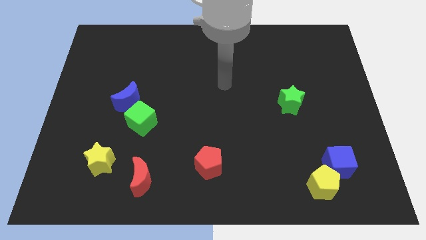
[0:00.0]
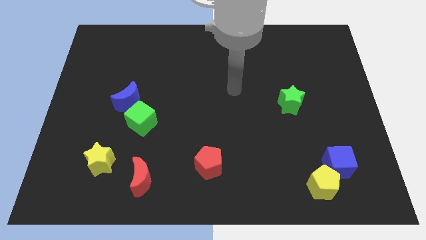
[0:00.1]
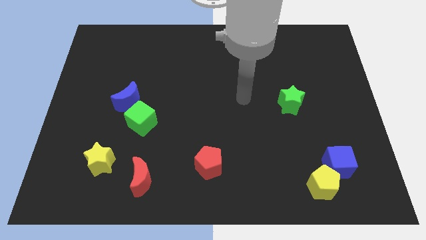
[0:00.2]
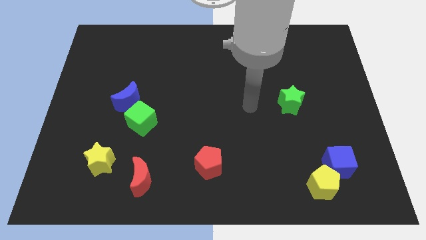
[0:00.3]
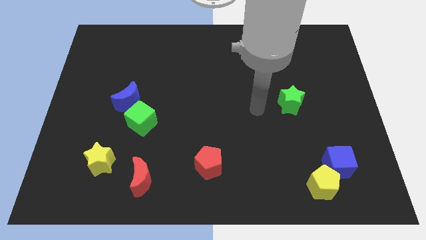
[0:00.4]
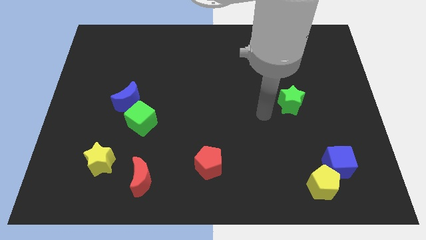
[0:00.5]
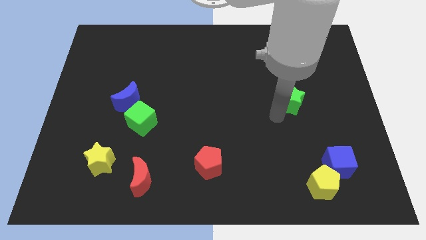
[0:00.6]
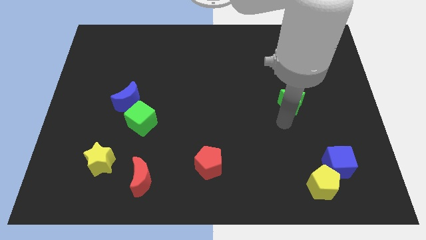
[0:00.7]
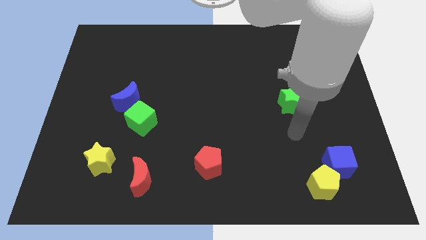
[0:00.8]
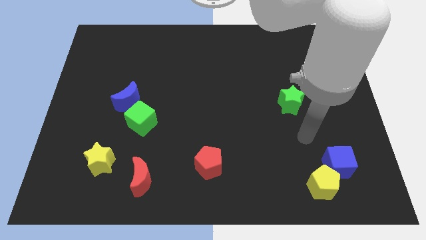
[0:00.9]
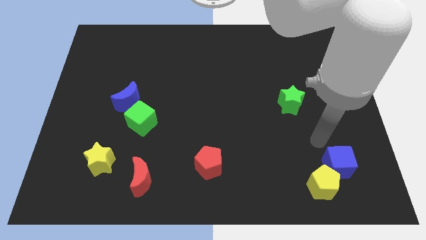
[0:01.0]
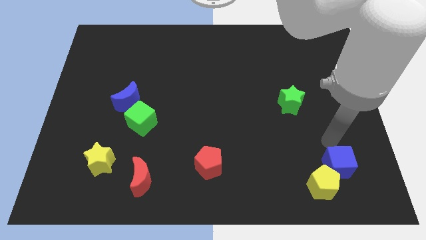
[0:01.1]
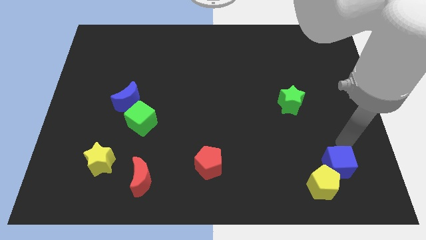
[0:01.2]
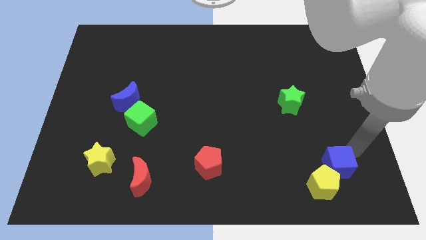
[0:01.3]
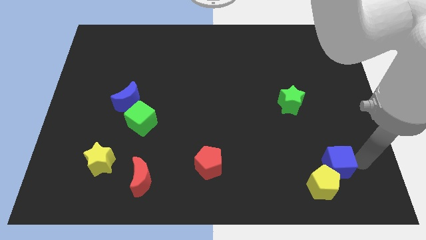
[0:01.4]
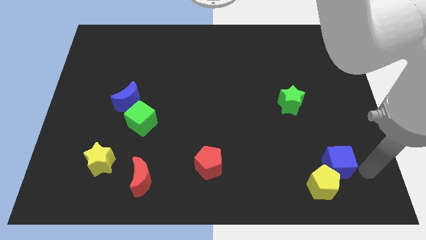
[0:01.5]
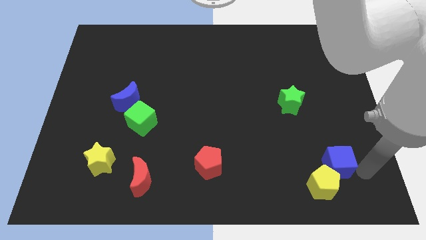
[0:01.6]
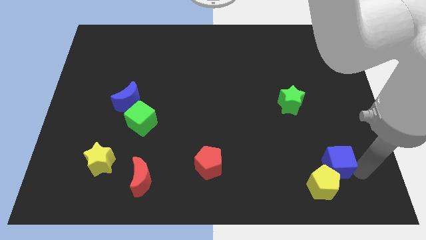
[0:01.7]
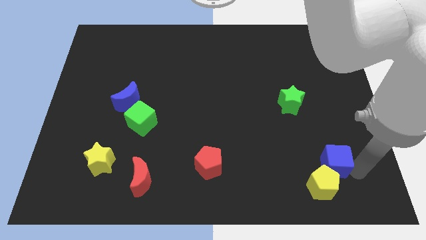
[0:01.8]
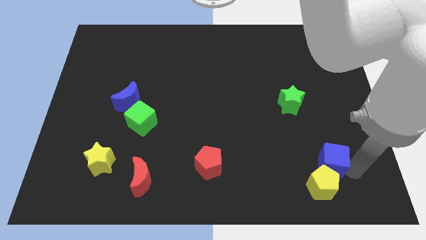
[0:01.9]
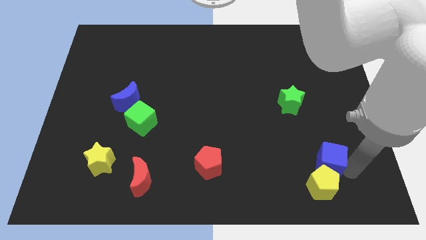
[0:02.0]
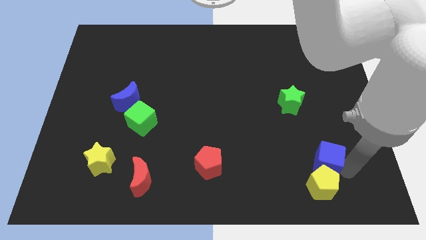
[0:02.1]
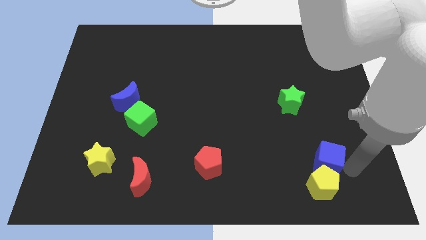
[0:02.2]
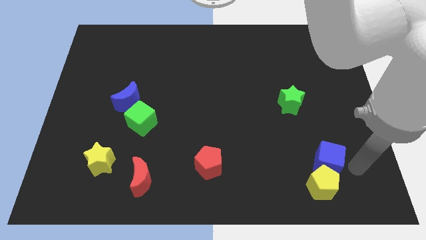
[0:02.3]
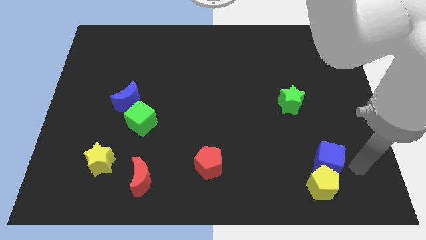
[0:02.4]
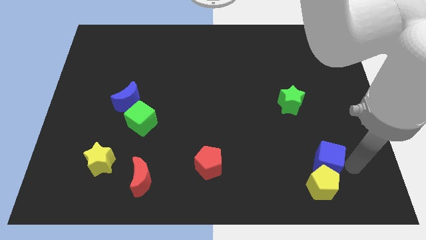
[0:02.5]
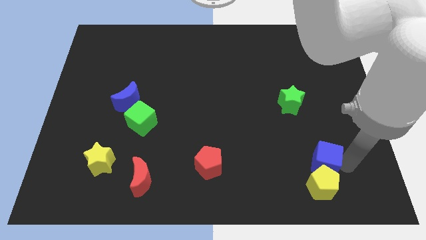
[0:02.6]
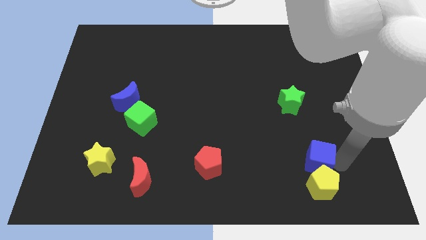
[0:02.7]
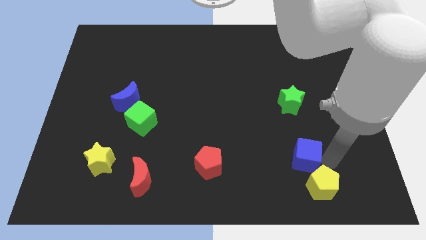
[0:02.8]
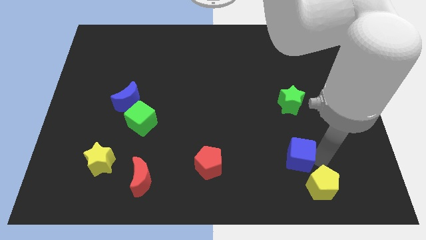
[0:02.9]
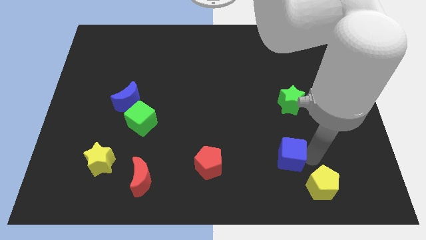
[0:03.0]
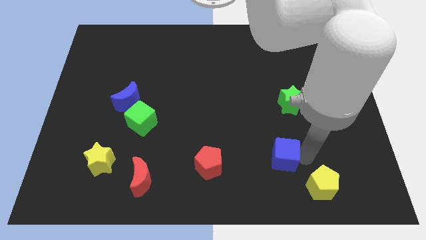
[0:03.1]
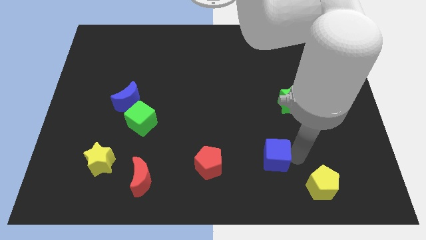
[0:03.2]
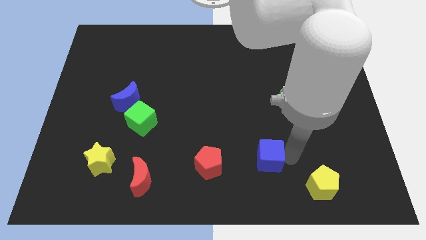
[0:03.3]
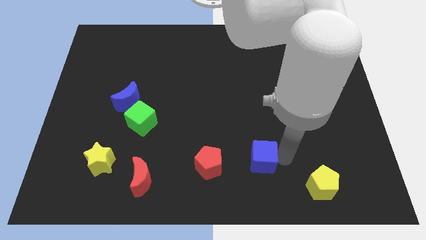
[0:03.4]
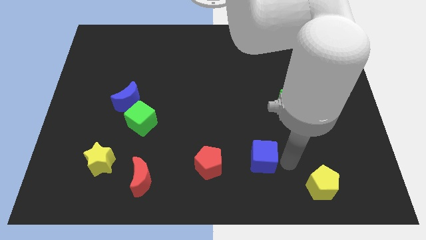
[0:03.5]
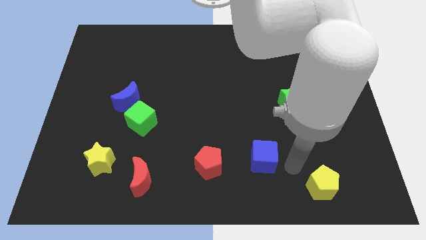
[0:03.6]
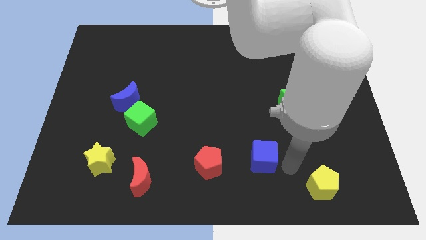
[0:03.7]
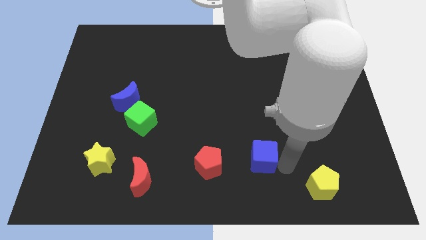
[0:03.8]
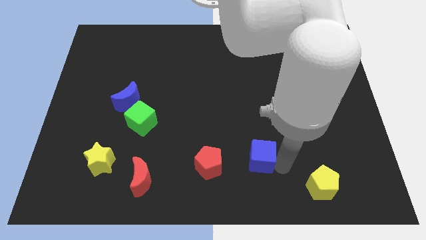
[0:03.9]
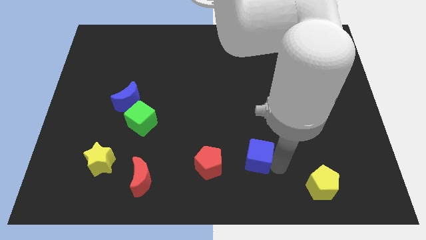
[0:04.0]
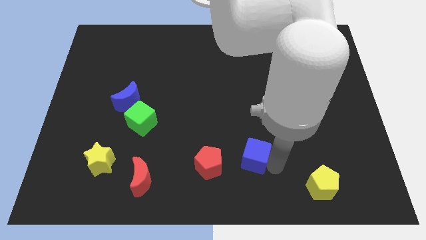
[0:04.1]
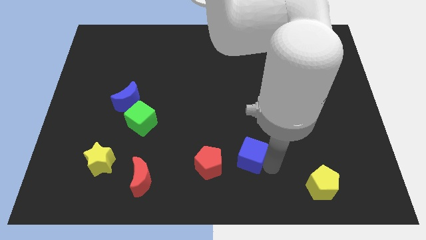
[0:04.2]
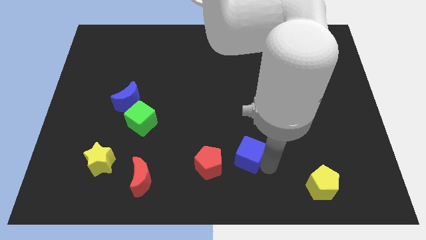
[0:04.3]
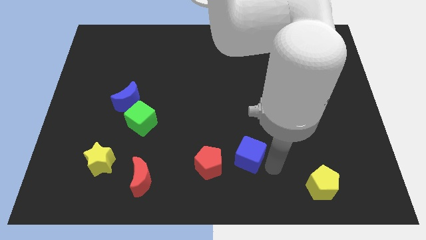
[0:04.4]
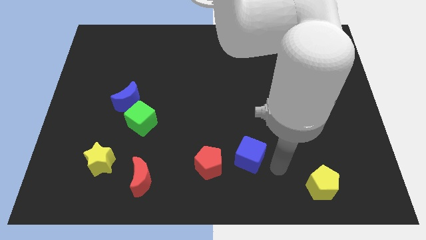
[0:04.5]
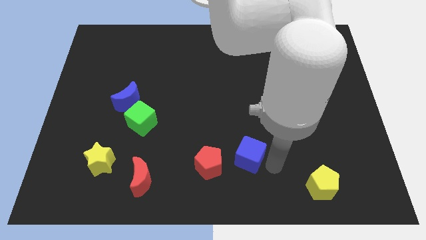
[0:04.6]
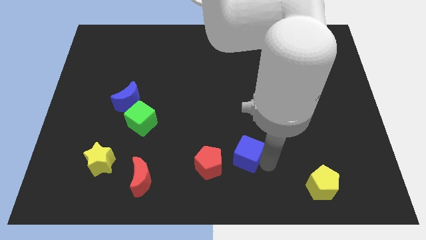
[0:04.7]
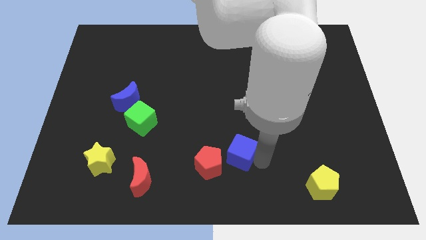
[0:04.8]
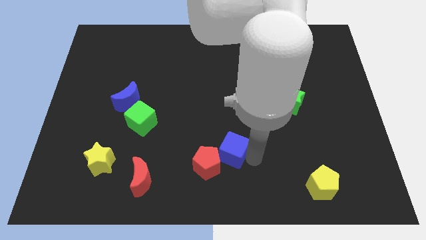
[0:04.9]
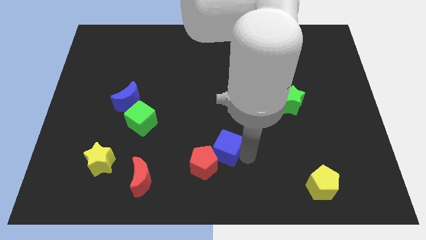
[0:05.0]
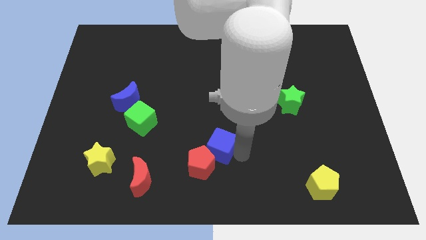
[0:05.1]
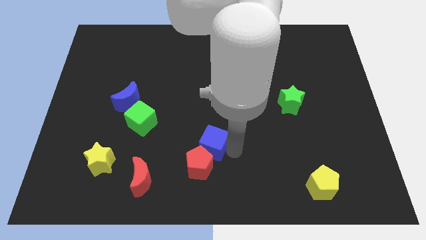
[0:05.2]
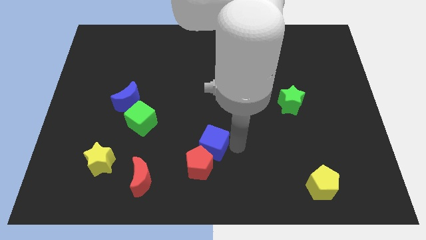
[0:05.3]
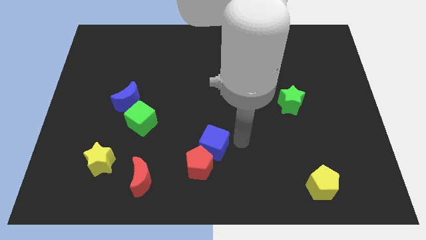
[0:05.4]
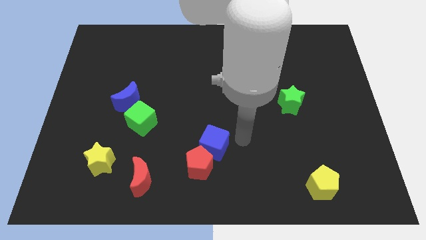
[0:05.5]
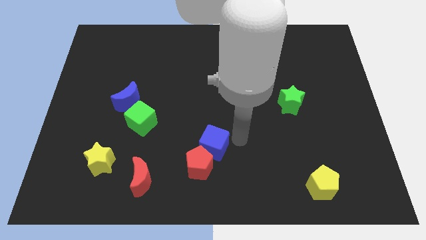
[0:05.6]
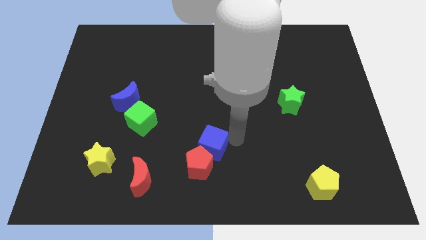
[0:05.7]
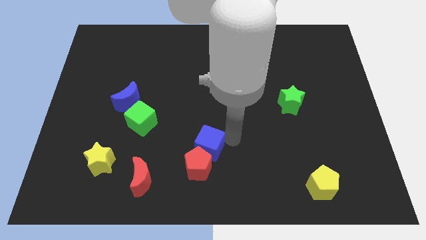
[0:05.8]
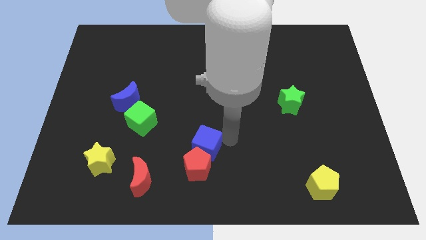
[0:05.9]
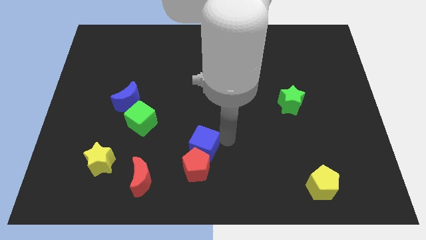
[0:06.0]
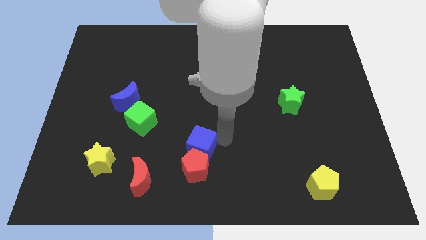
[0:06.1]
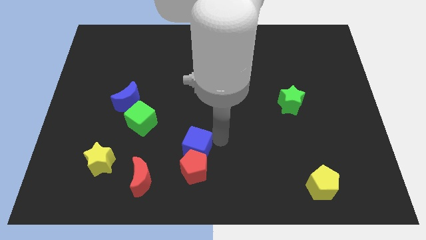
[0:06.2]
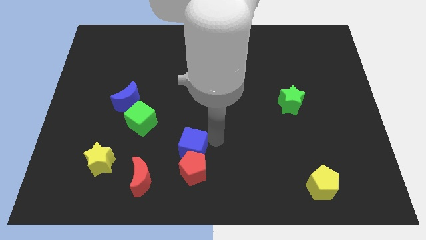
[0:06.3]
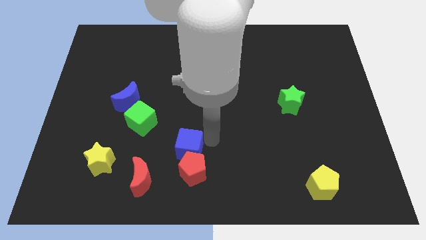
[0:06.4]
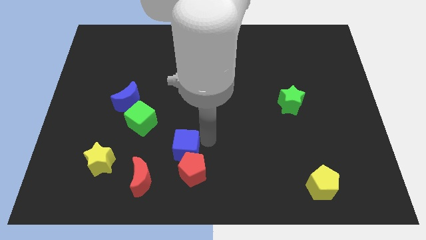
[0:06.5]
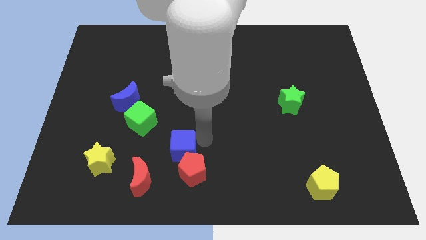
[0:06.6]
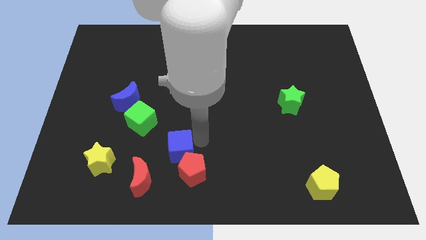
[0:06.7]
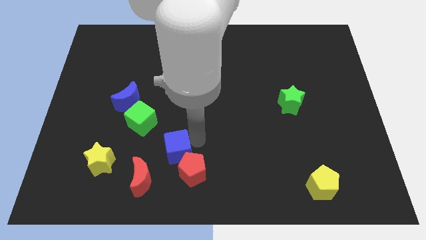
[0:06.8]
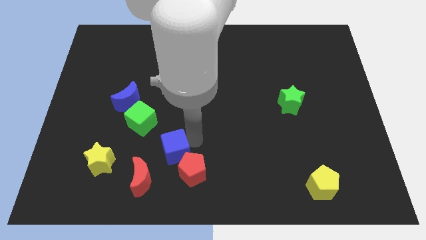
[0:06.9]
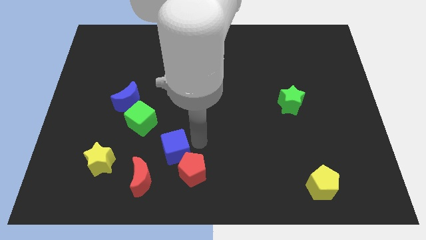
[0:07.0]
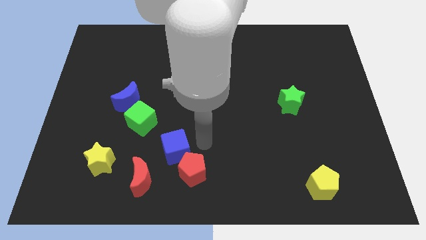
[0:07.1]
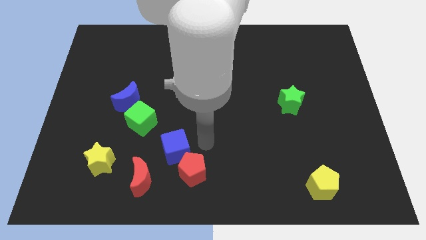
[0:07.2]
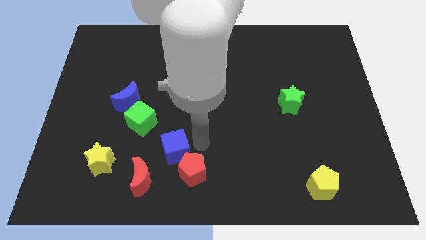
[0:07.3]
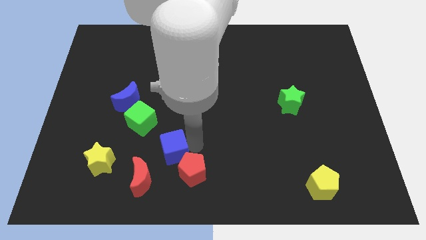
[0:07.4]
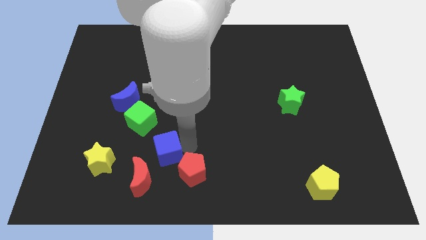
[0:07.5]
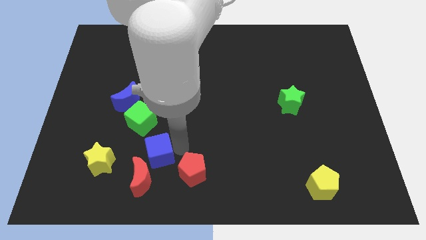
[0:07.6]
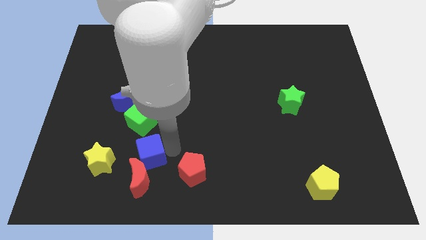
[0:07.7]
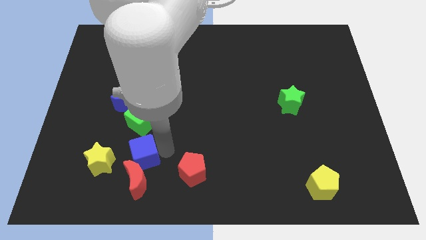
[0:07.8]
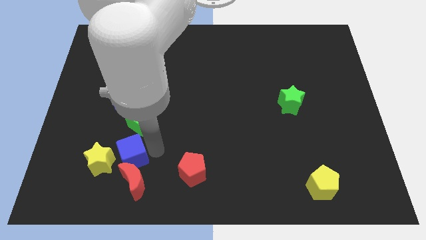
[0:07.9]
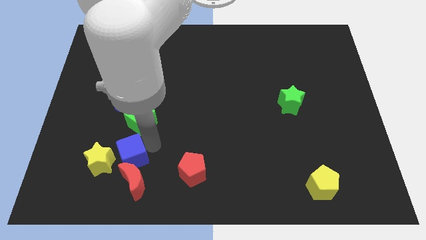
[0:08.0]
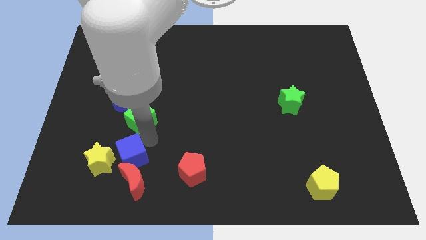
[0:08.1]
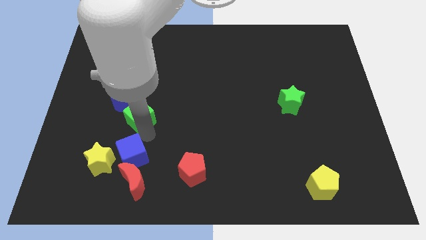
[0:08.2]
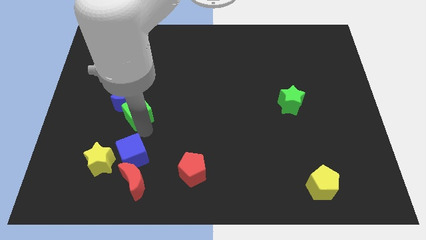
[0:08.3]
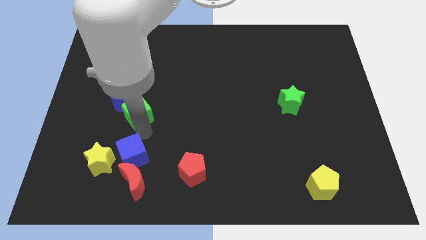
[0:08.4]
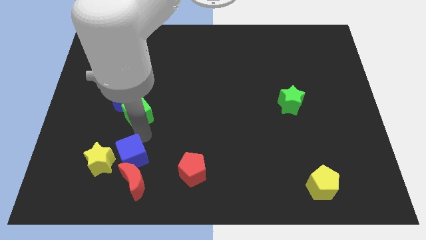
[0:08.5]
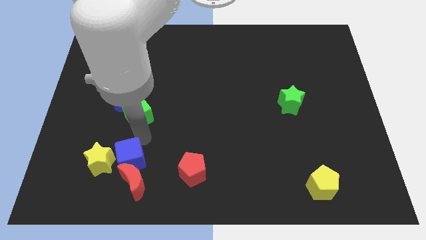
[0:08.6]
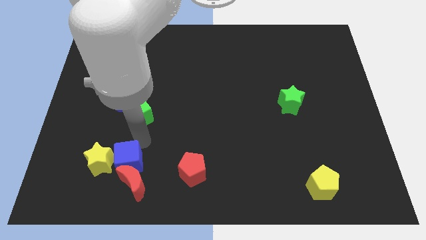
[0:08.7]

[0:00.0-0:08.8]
move the blue cube to the bottom right side of the yellow star
